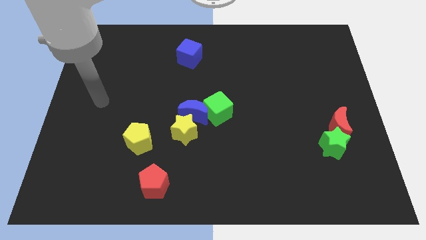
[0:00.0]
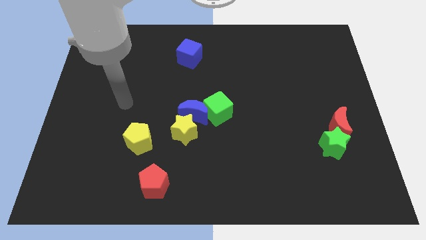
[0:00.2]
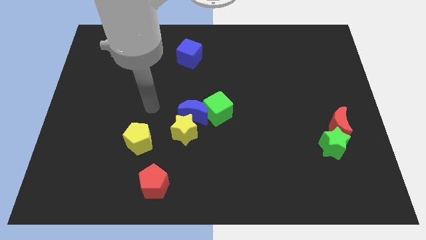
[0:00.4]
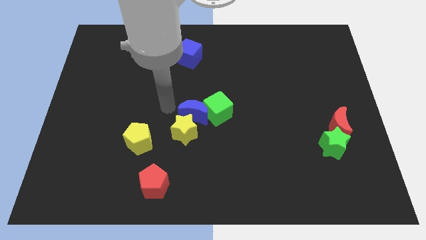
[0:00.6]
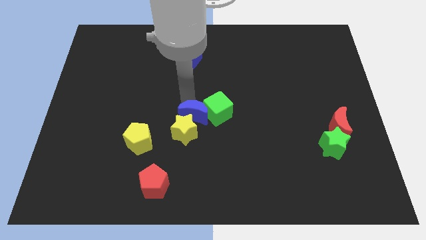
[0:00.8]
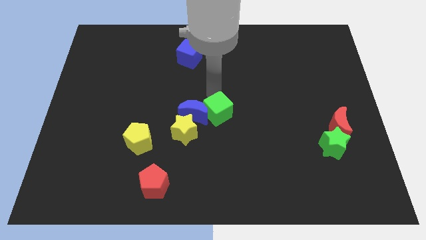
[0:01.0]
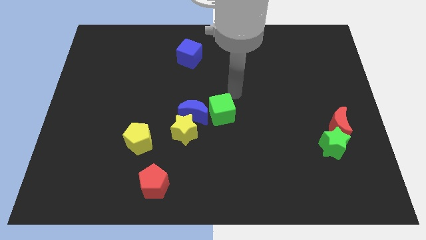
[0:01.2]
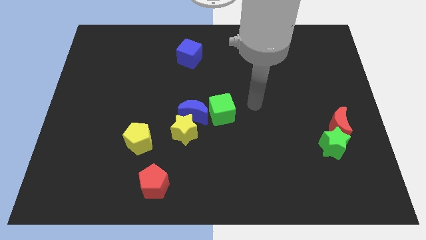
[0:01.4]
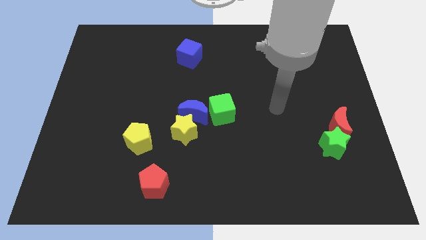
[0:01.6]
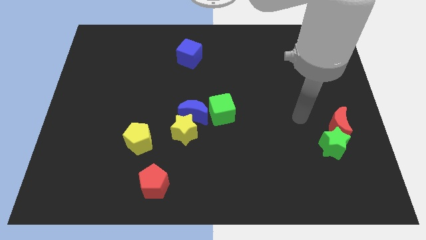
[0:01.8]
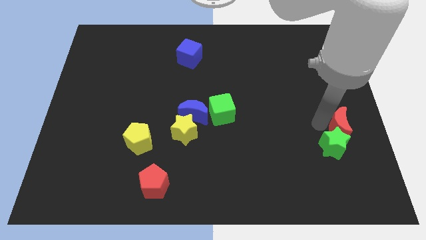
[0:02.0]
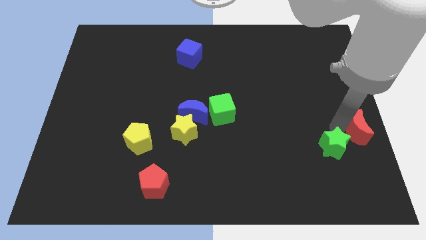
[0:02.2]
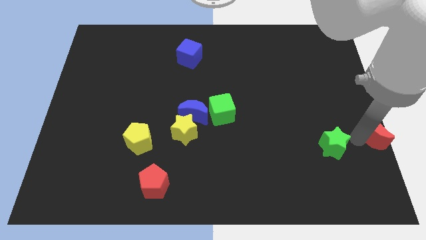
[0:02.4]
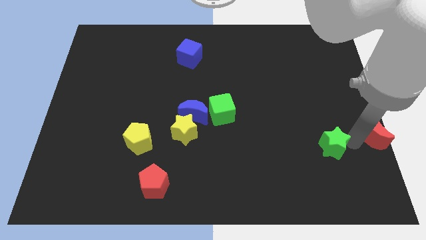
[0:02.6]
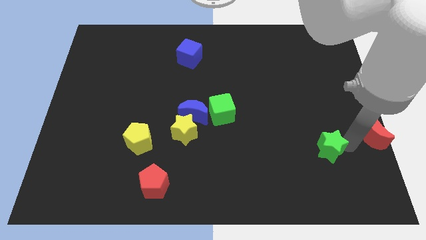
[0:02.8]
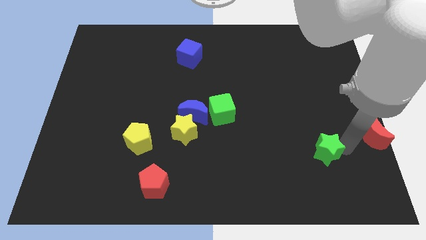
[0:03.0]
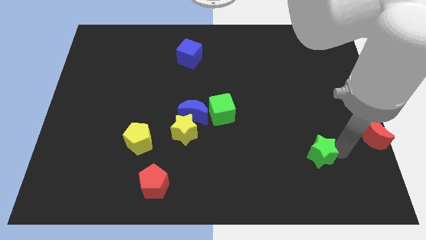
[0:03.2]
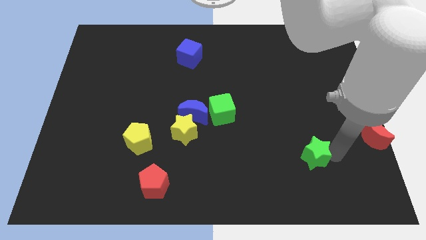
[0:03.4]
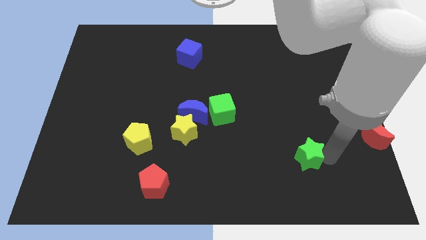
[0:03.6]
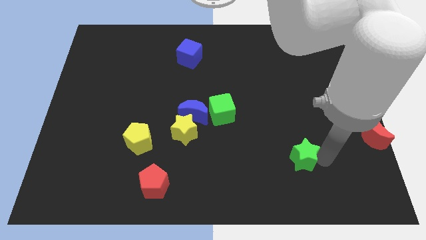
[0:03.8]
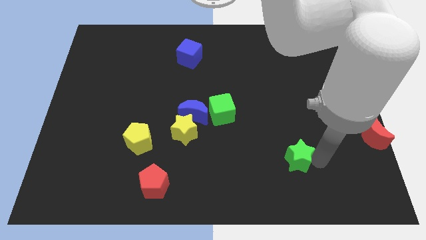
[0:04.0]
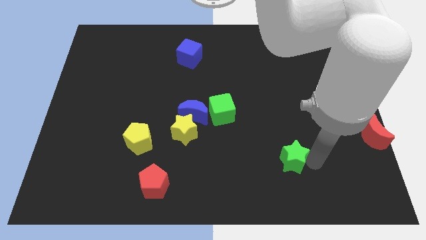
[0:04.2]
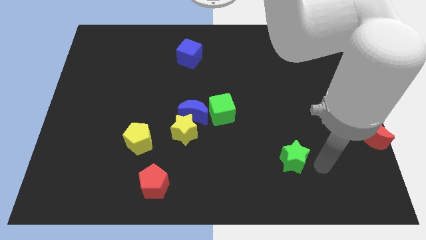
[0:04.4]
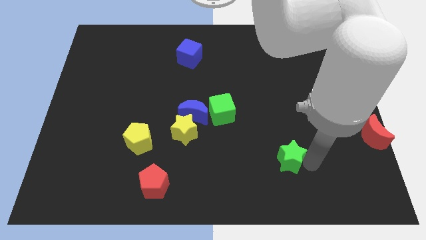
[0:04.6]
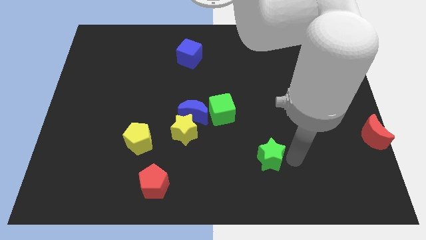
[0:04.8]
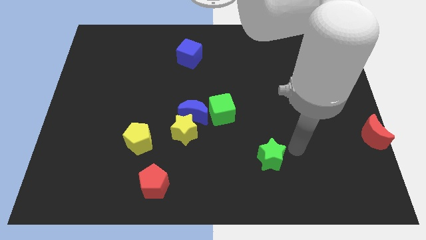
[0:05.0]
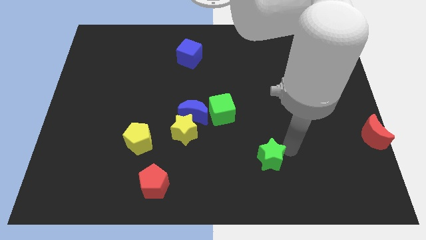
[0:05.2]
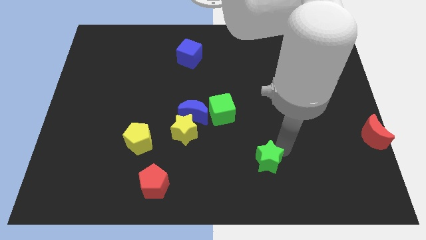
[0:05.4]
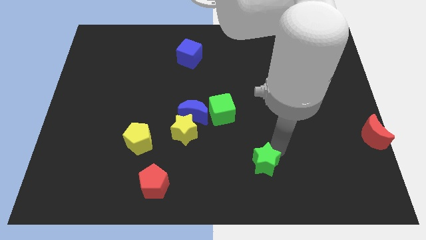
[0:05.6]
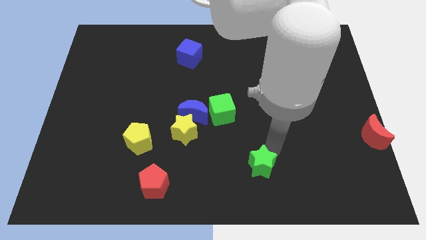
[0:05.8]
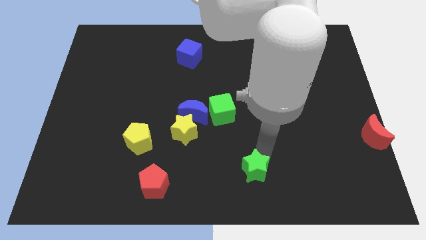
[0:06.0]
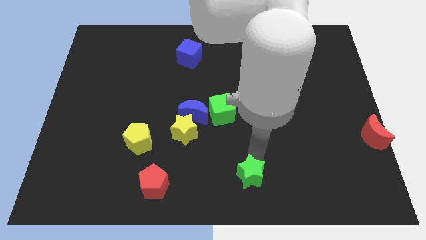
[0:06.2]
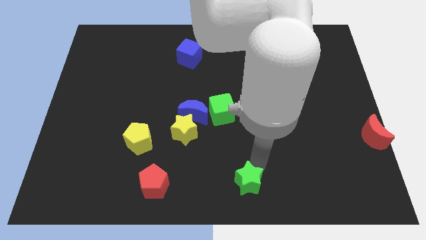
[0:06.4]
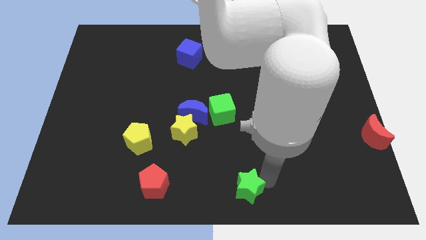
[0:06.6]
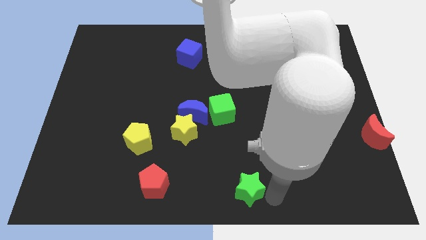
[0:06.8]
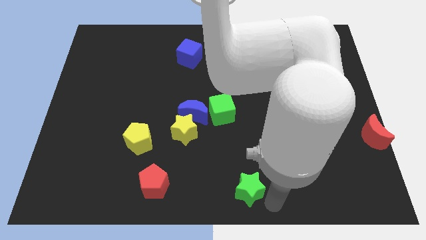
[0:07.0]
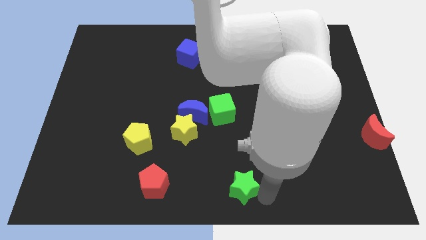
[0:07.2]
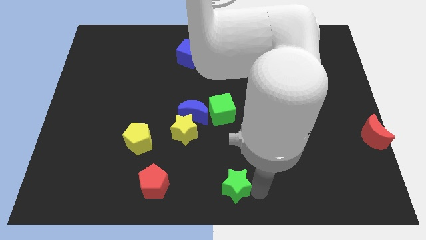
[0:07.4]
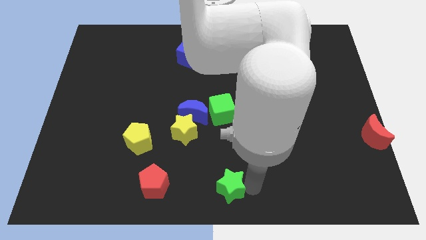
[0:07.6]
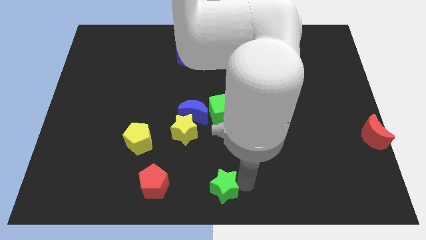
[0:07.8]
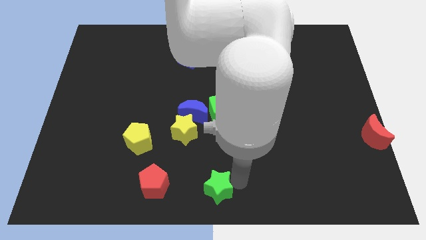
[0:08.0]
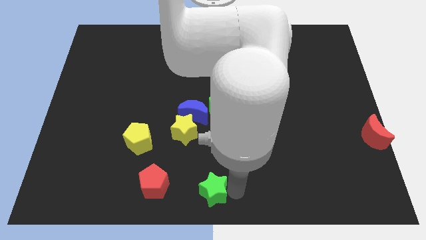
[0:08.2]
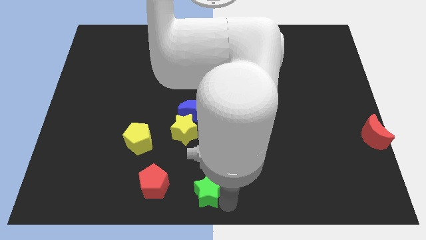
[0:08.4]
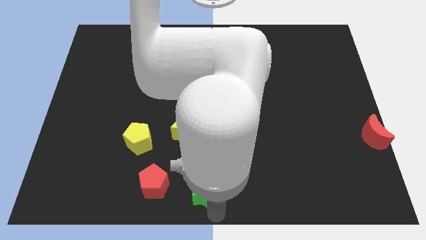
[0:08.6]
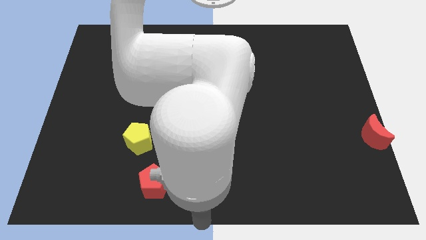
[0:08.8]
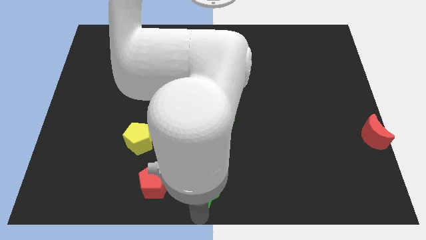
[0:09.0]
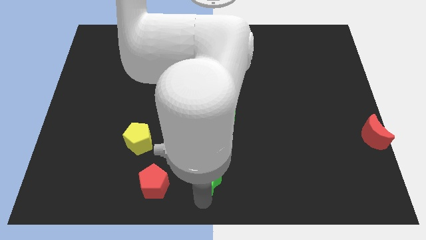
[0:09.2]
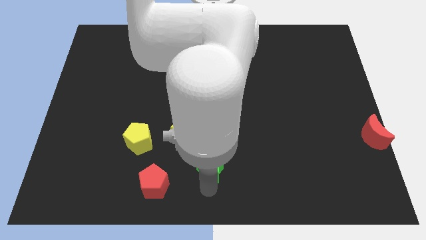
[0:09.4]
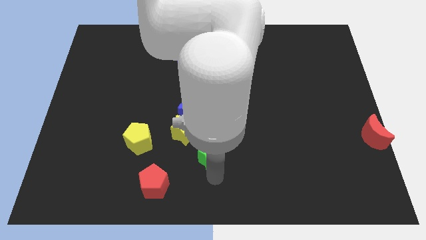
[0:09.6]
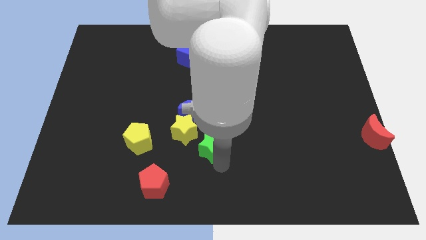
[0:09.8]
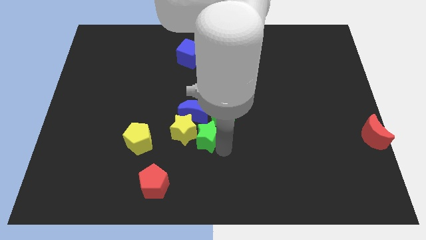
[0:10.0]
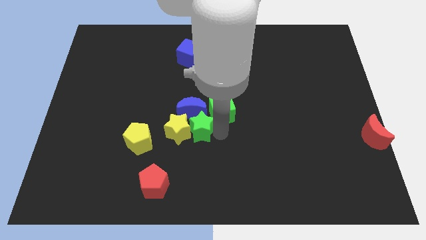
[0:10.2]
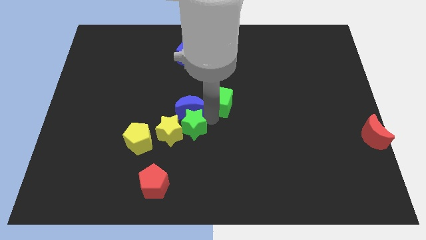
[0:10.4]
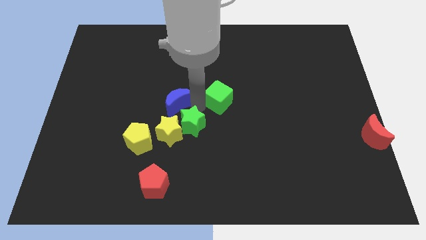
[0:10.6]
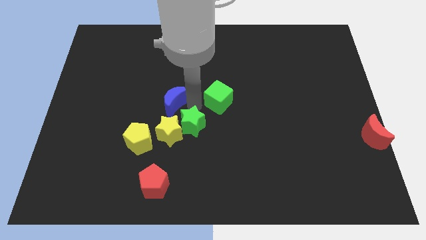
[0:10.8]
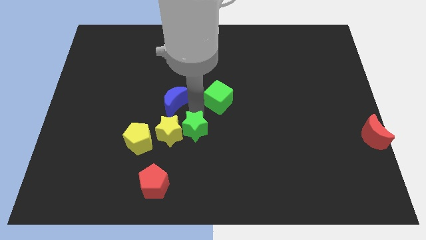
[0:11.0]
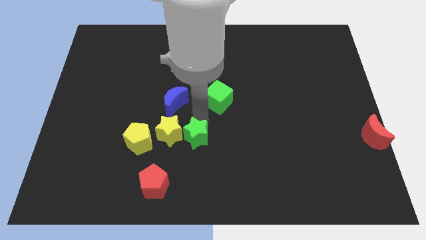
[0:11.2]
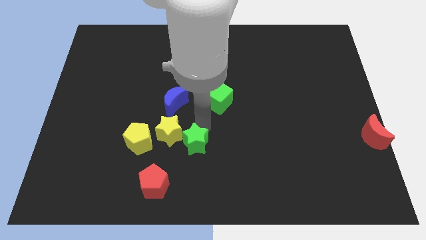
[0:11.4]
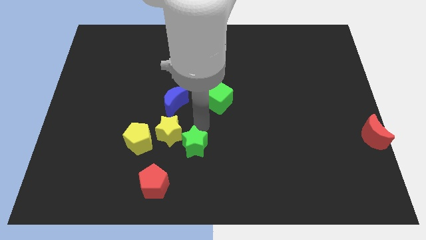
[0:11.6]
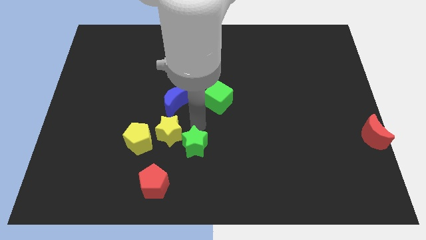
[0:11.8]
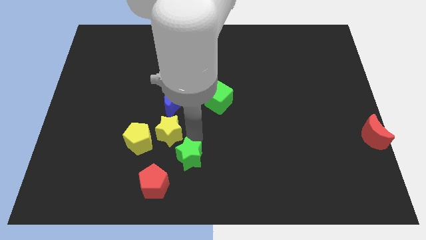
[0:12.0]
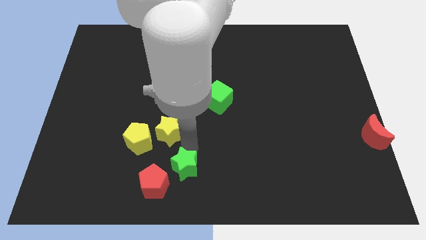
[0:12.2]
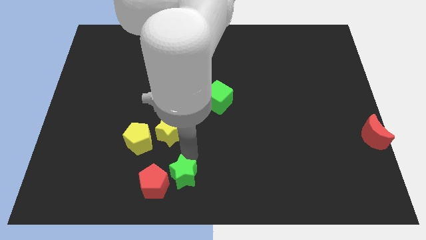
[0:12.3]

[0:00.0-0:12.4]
move the green star towards the red pentagon

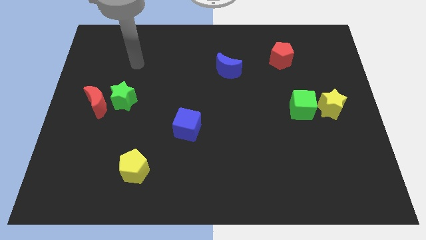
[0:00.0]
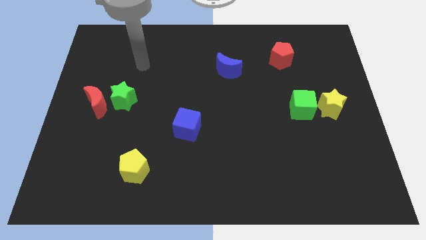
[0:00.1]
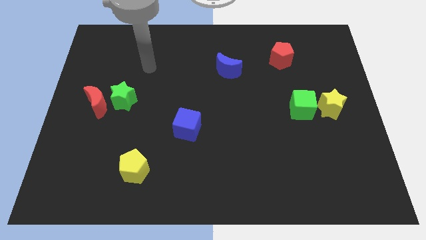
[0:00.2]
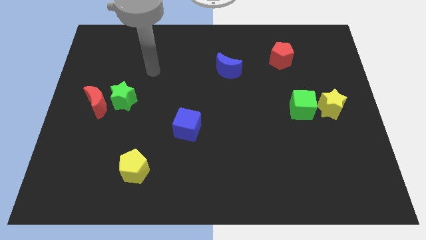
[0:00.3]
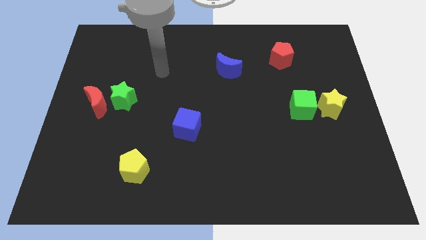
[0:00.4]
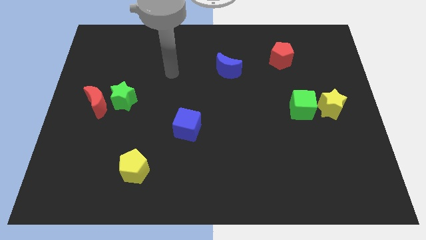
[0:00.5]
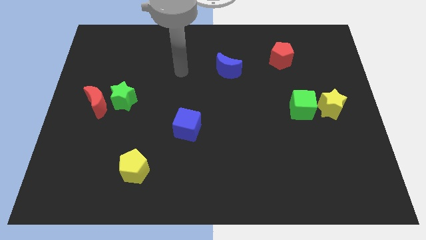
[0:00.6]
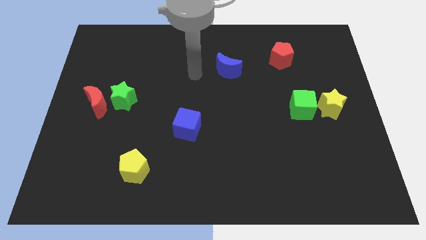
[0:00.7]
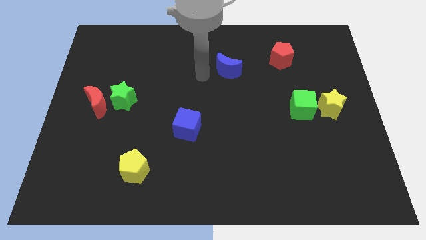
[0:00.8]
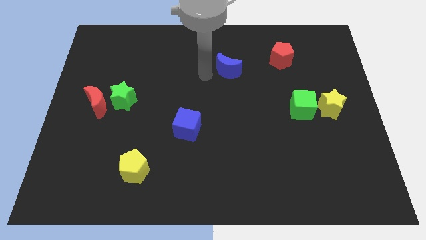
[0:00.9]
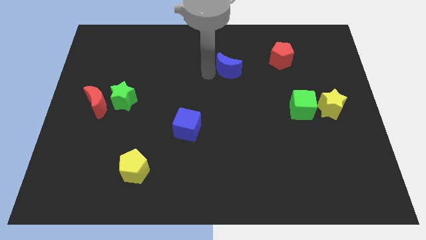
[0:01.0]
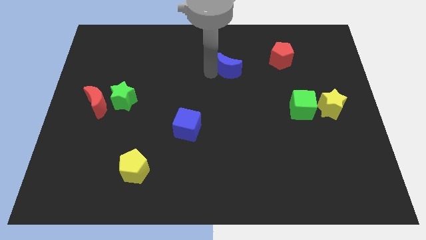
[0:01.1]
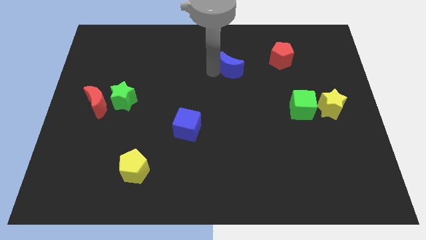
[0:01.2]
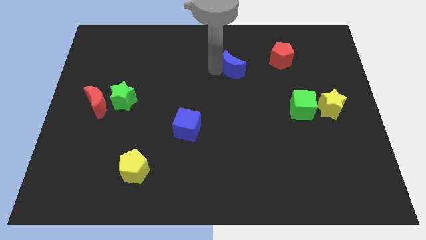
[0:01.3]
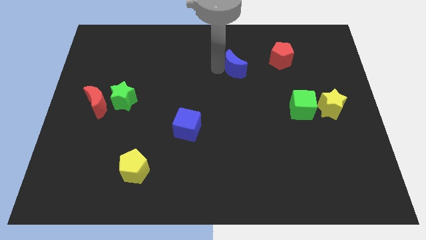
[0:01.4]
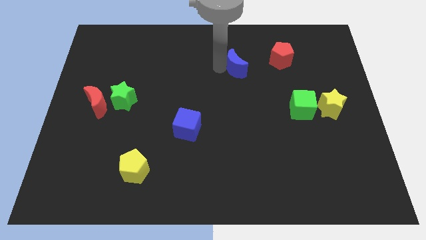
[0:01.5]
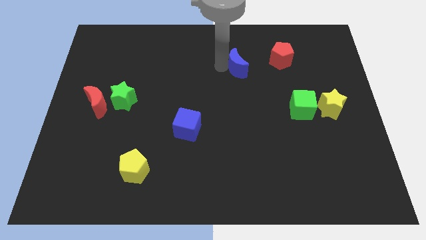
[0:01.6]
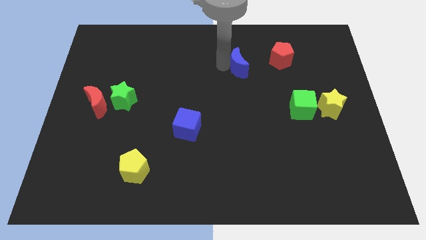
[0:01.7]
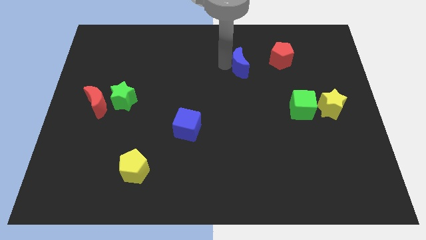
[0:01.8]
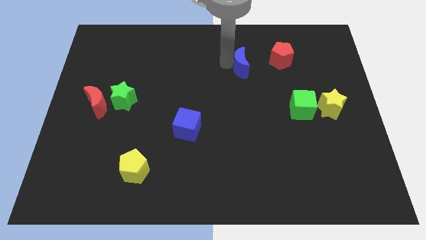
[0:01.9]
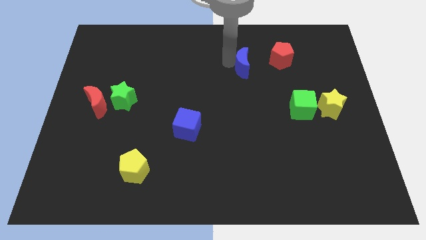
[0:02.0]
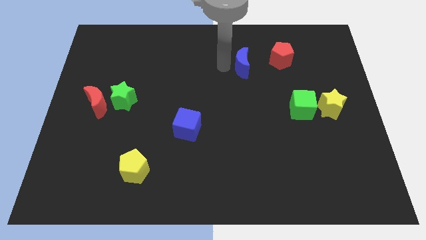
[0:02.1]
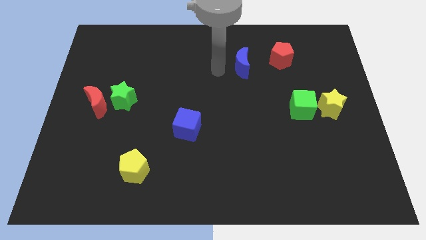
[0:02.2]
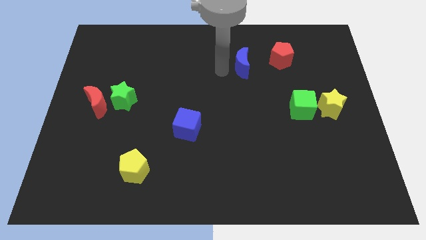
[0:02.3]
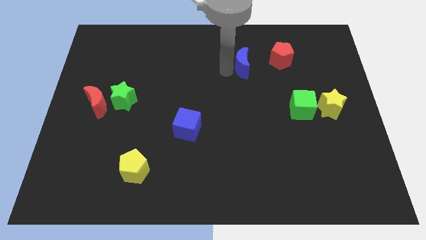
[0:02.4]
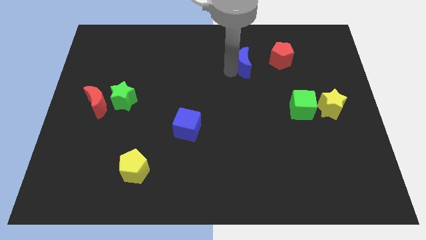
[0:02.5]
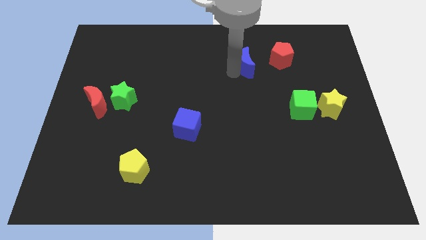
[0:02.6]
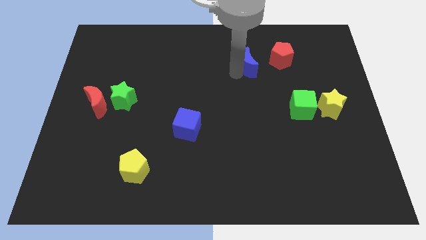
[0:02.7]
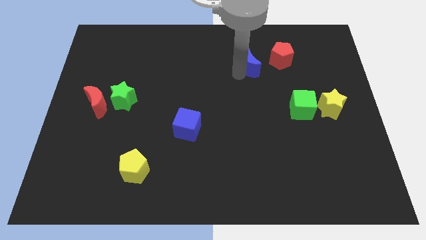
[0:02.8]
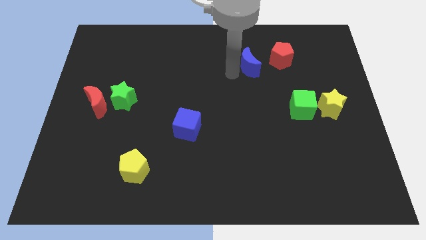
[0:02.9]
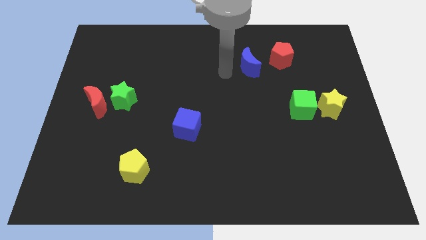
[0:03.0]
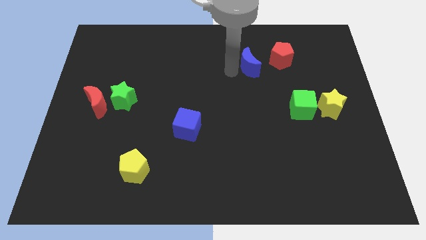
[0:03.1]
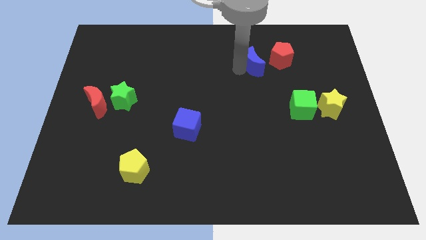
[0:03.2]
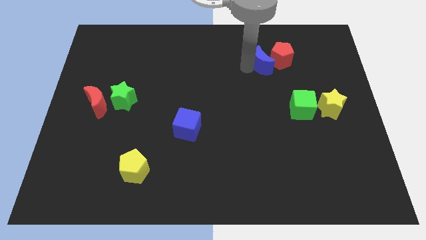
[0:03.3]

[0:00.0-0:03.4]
put the blue moon next to the red pentagon
